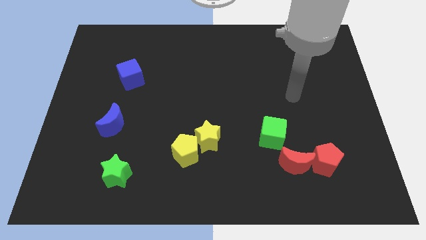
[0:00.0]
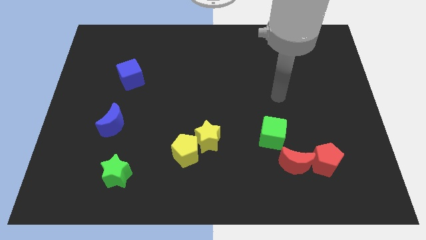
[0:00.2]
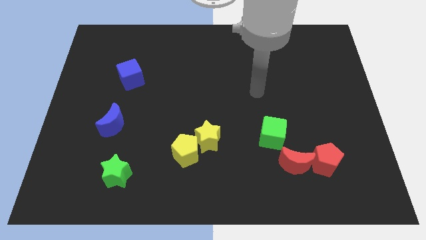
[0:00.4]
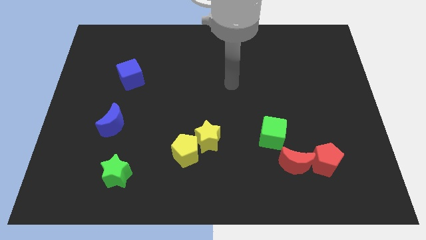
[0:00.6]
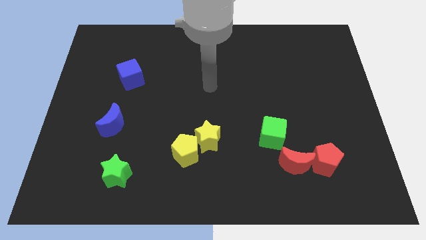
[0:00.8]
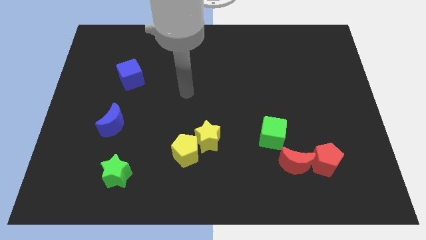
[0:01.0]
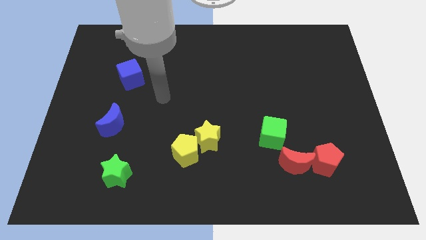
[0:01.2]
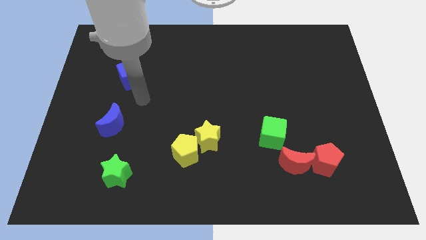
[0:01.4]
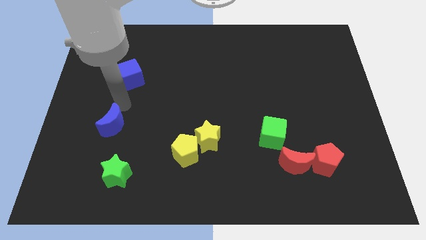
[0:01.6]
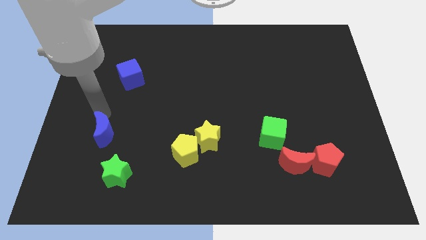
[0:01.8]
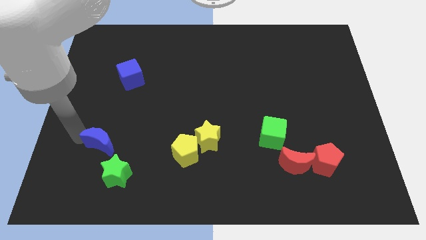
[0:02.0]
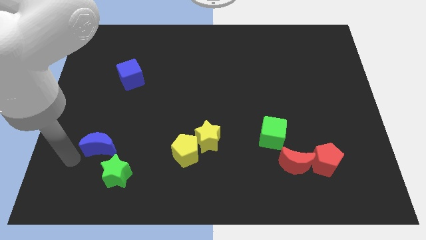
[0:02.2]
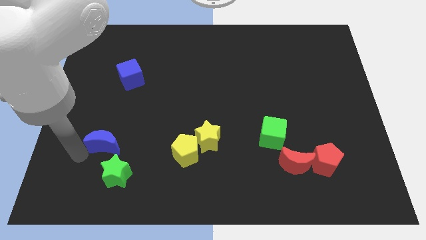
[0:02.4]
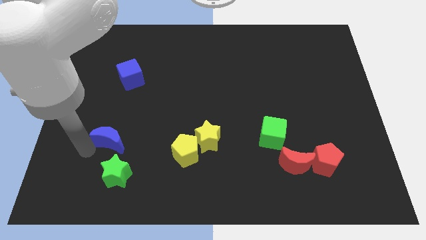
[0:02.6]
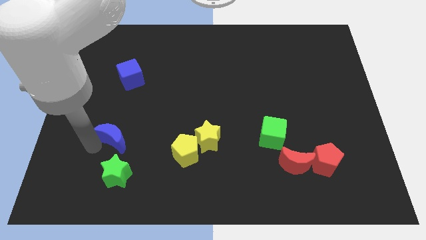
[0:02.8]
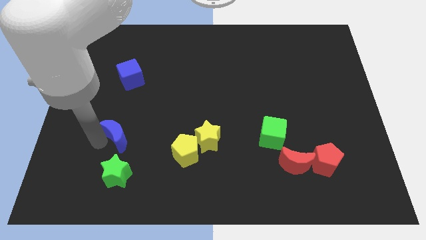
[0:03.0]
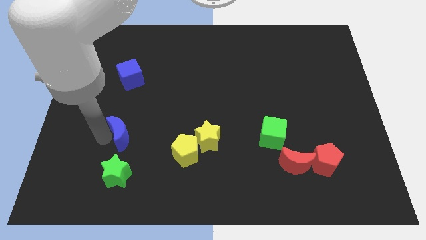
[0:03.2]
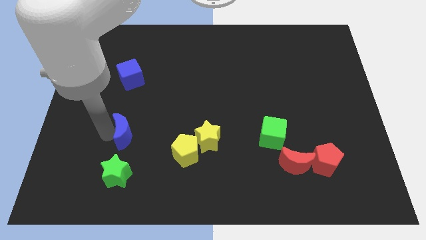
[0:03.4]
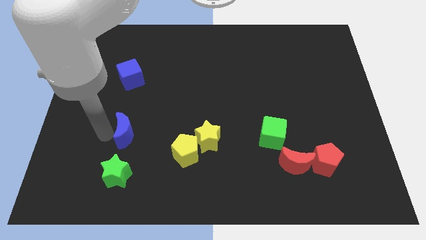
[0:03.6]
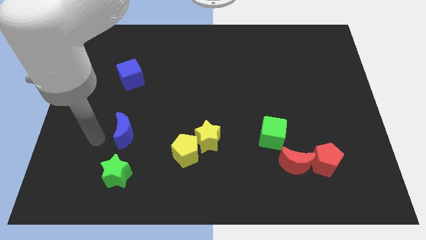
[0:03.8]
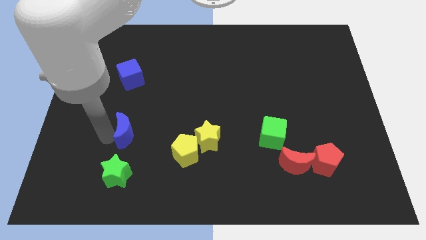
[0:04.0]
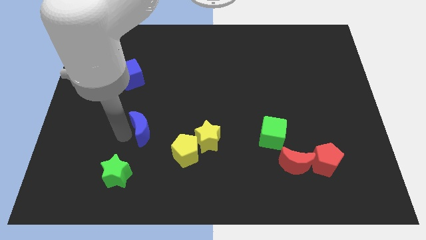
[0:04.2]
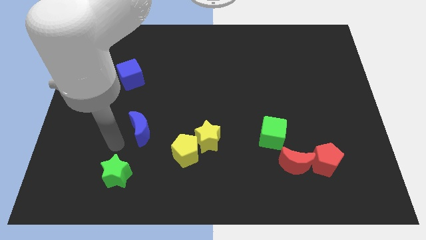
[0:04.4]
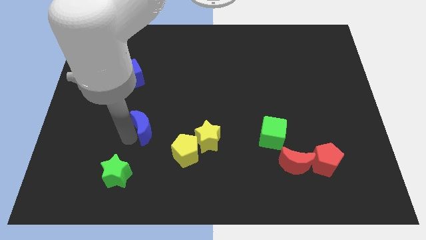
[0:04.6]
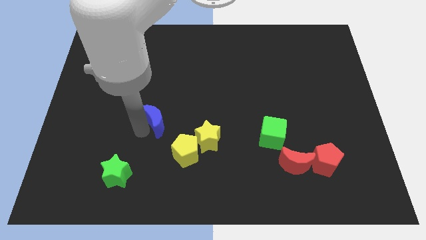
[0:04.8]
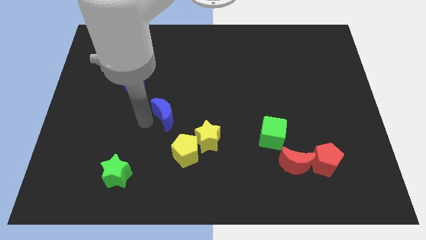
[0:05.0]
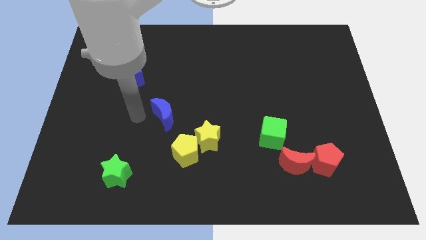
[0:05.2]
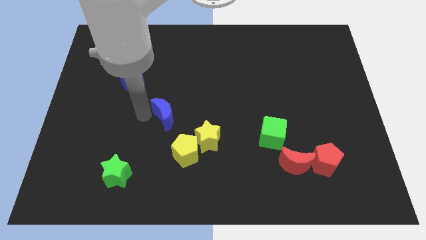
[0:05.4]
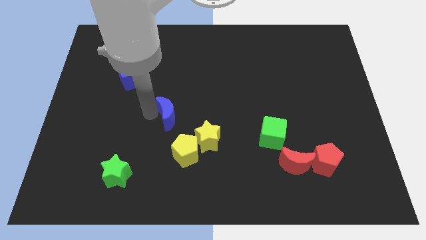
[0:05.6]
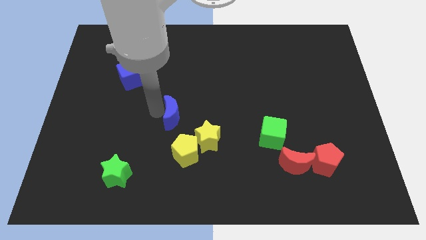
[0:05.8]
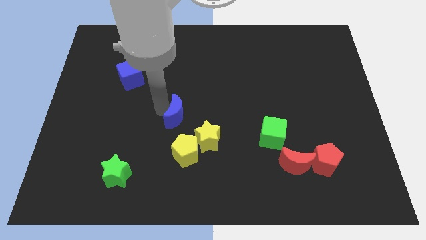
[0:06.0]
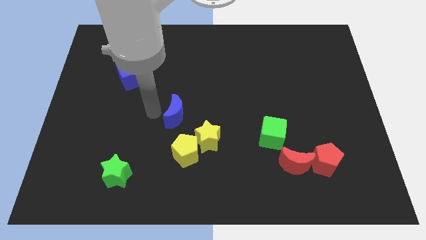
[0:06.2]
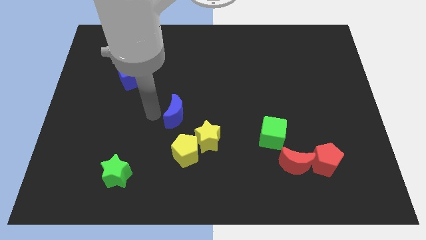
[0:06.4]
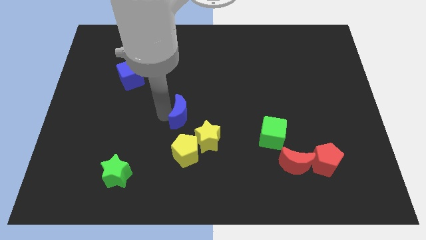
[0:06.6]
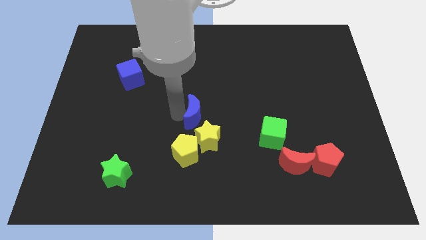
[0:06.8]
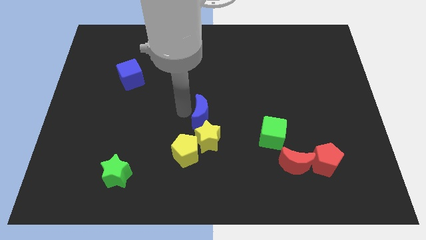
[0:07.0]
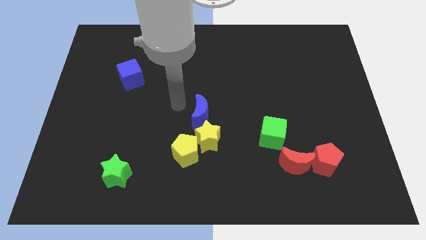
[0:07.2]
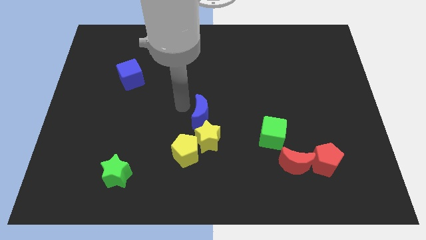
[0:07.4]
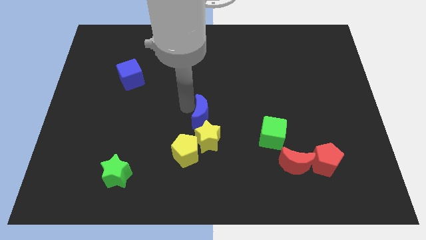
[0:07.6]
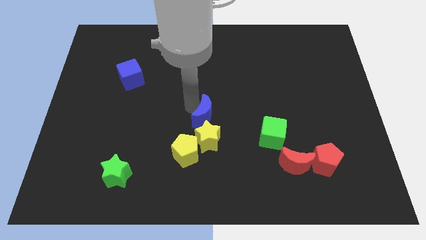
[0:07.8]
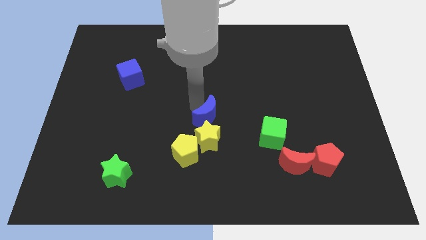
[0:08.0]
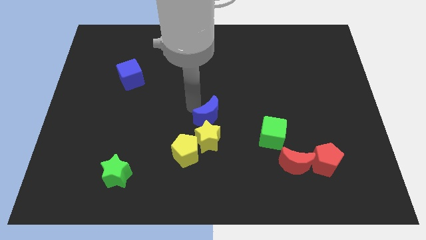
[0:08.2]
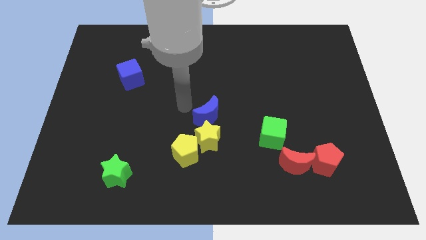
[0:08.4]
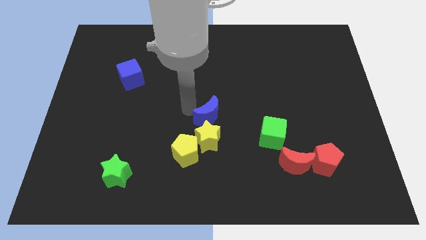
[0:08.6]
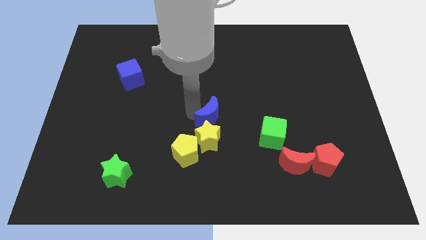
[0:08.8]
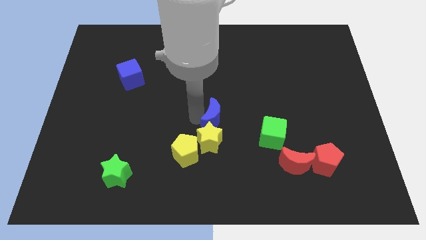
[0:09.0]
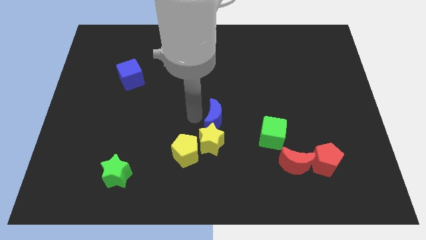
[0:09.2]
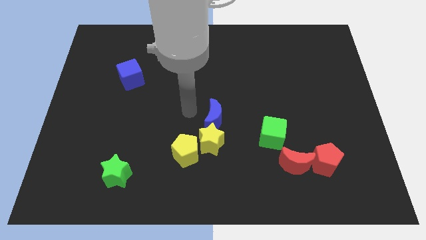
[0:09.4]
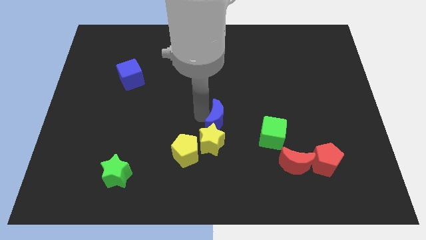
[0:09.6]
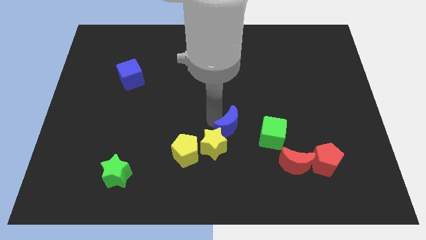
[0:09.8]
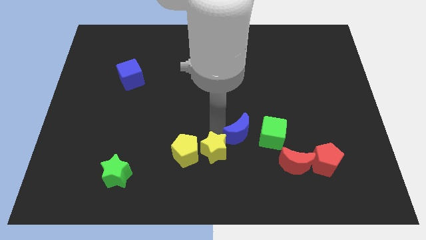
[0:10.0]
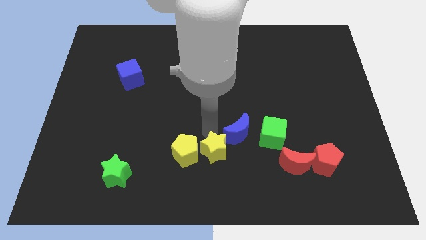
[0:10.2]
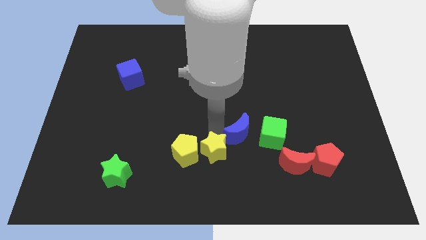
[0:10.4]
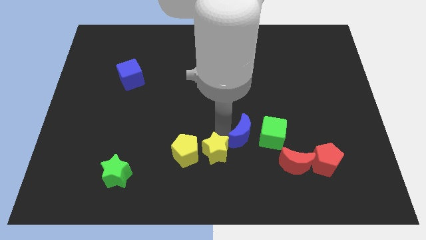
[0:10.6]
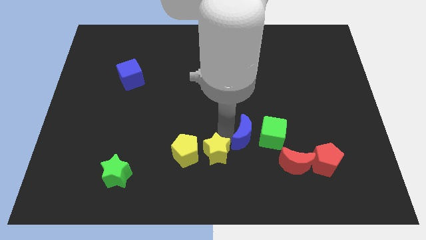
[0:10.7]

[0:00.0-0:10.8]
move the blue moon close to the green cube

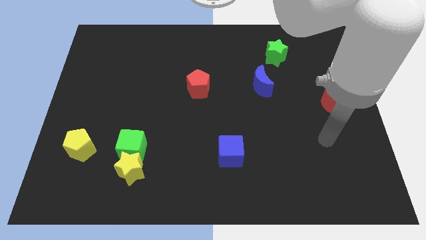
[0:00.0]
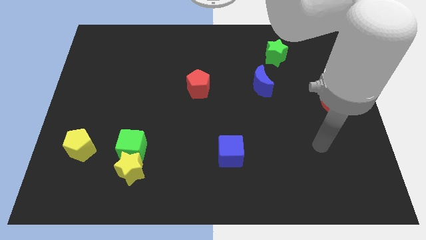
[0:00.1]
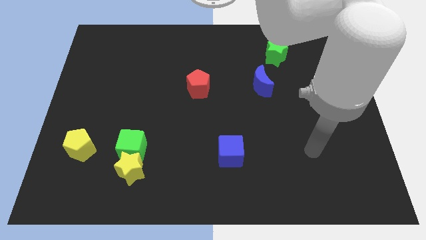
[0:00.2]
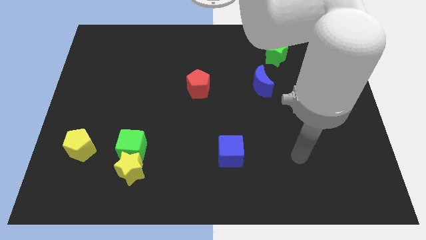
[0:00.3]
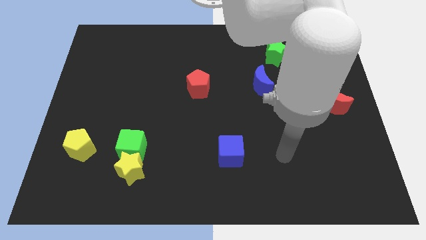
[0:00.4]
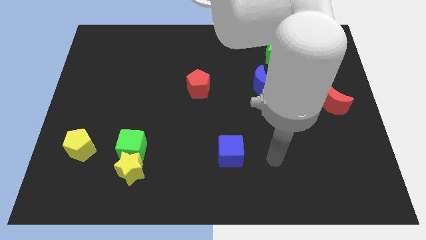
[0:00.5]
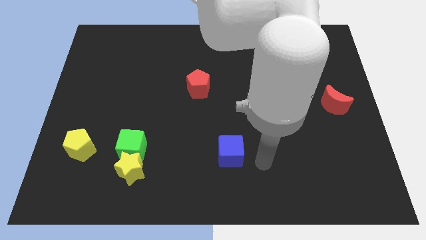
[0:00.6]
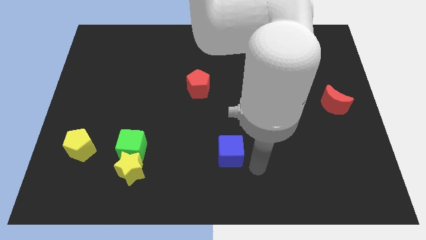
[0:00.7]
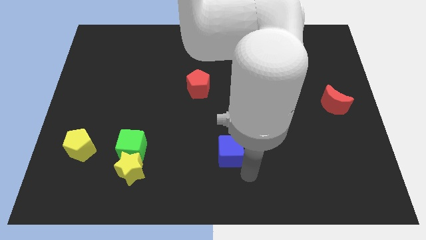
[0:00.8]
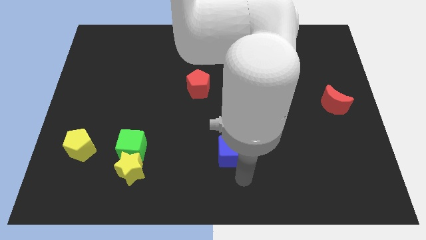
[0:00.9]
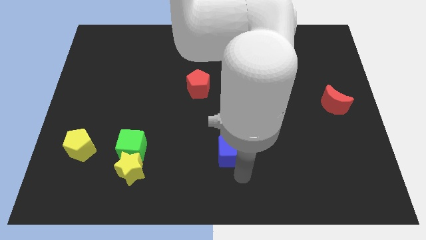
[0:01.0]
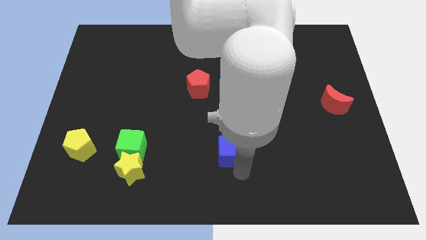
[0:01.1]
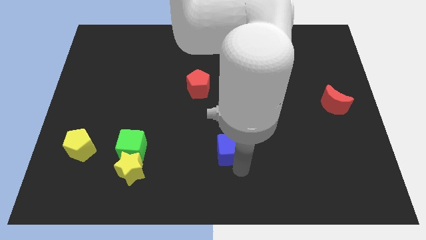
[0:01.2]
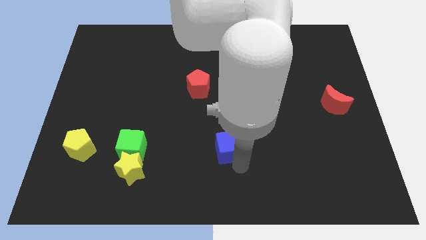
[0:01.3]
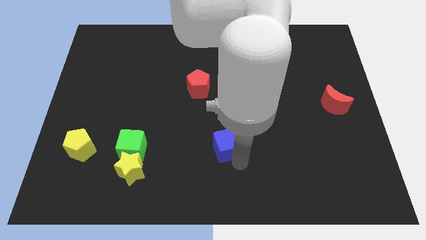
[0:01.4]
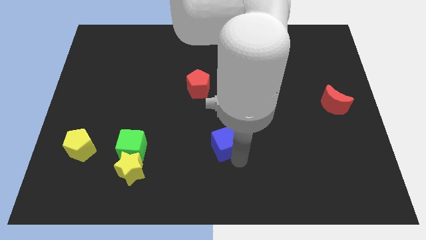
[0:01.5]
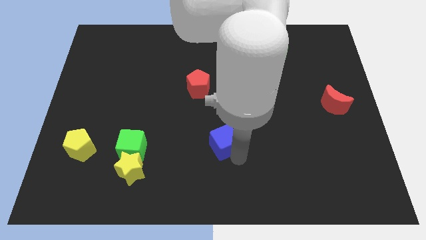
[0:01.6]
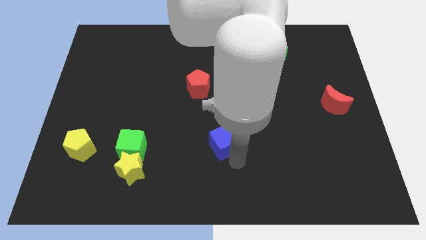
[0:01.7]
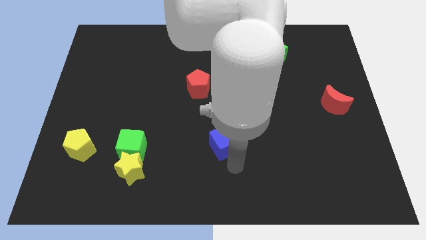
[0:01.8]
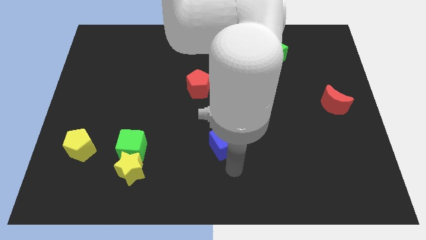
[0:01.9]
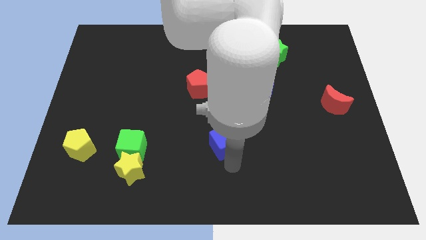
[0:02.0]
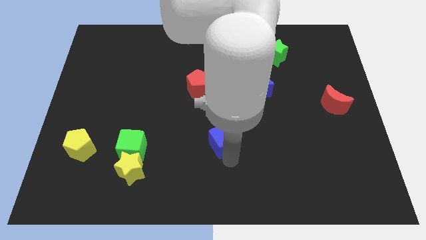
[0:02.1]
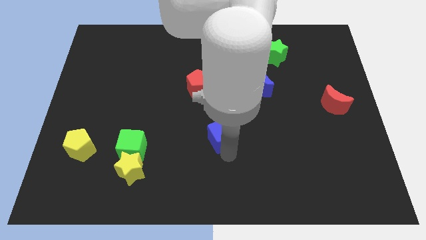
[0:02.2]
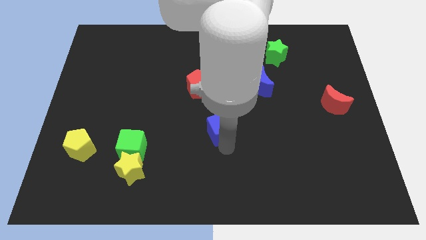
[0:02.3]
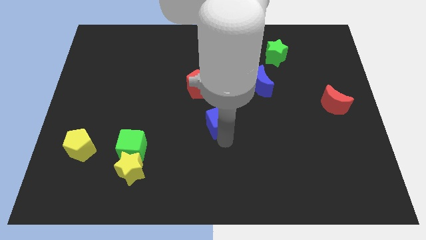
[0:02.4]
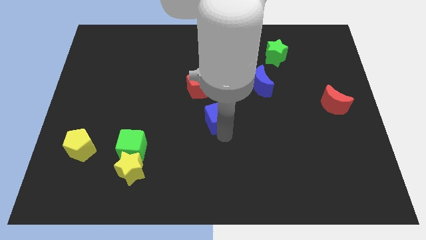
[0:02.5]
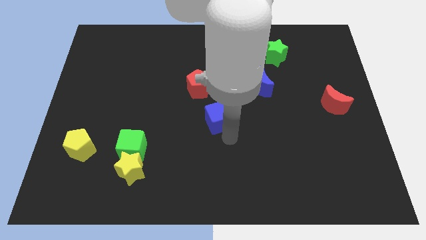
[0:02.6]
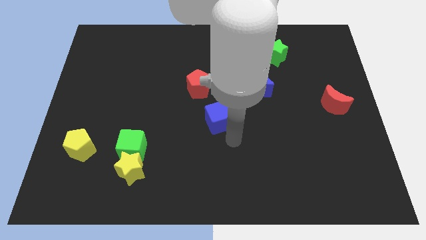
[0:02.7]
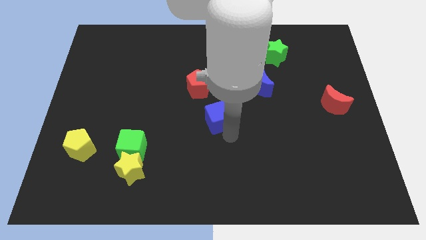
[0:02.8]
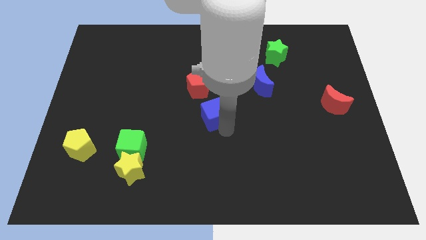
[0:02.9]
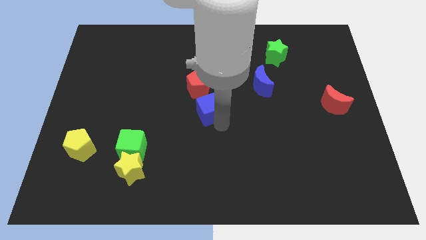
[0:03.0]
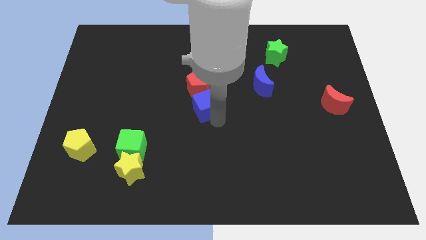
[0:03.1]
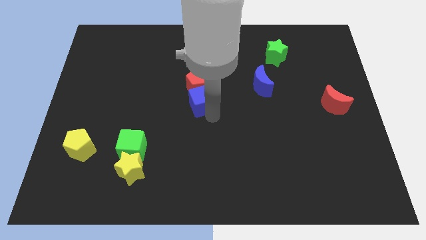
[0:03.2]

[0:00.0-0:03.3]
put the blue cube next to the red pentagon
